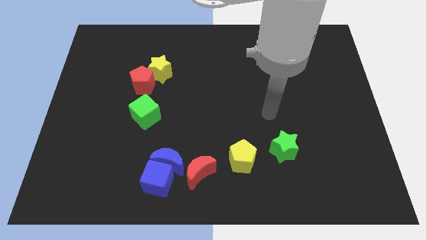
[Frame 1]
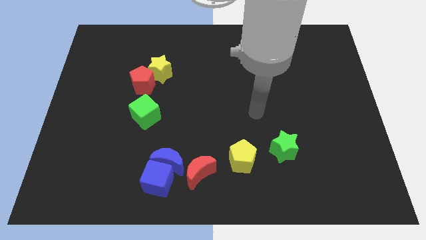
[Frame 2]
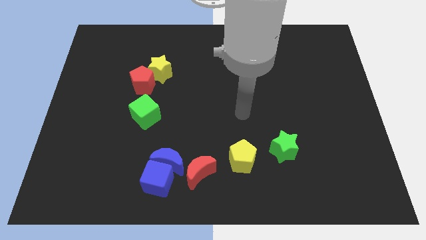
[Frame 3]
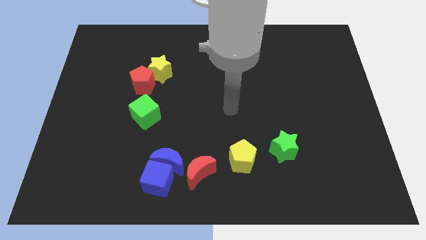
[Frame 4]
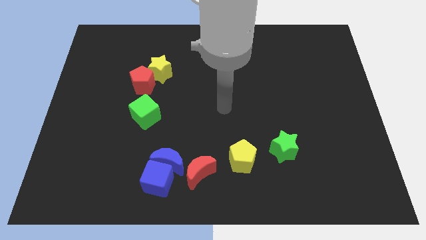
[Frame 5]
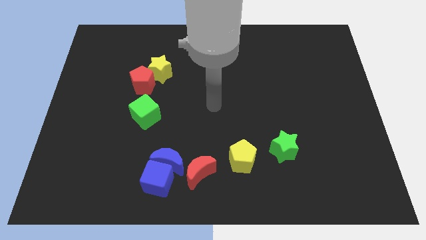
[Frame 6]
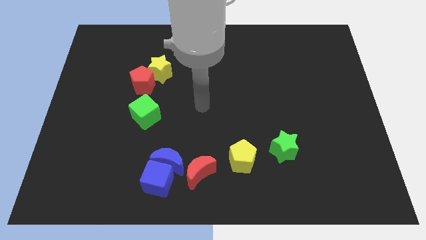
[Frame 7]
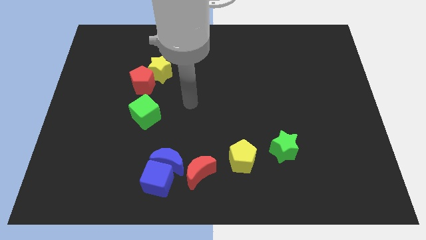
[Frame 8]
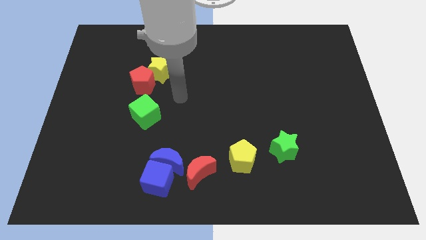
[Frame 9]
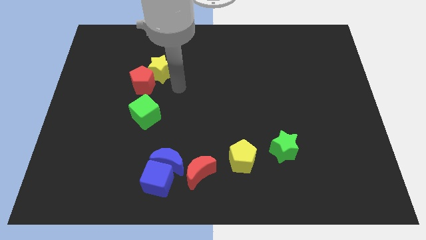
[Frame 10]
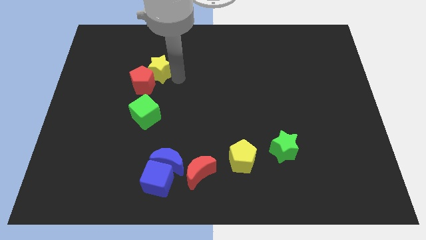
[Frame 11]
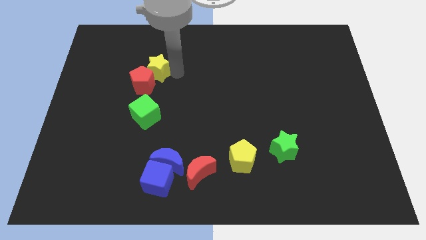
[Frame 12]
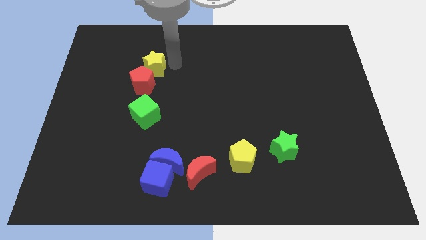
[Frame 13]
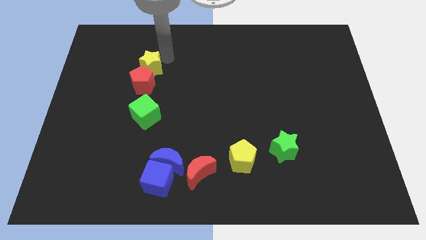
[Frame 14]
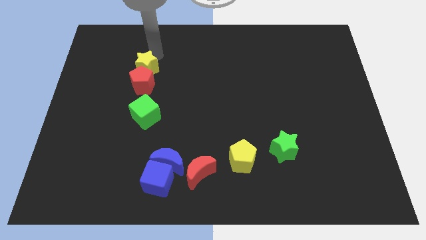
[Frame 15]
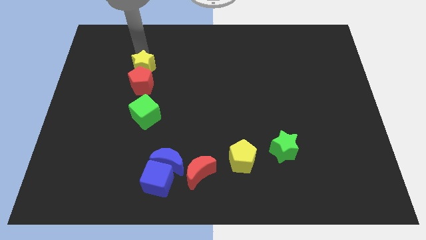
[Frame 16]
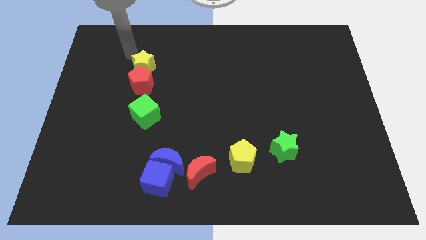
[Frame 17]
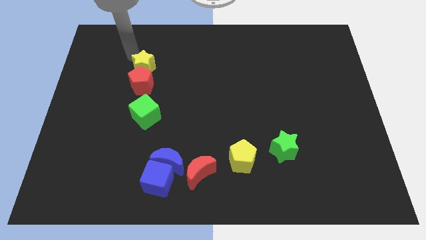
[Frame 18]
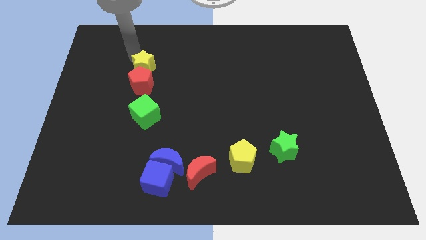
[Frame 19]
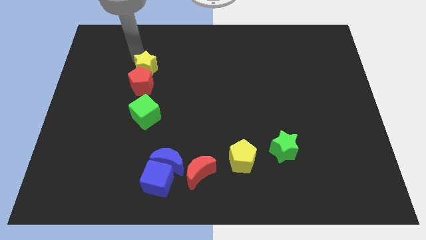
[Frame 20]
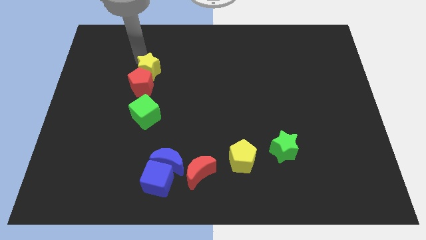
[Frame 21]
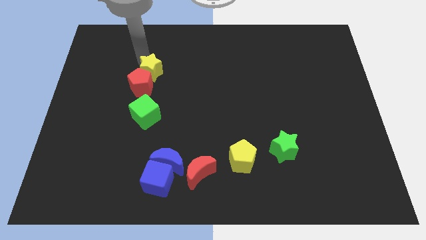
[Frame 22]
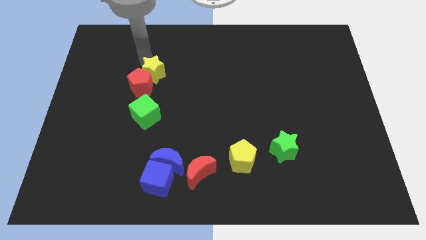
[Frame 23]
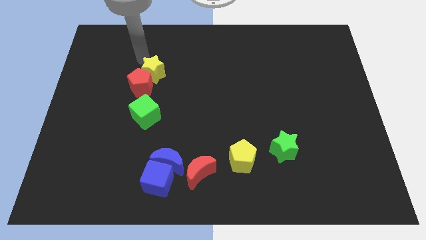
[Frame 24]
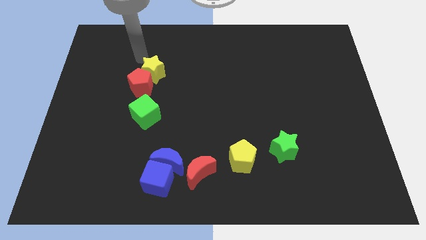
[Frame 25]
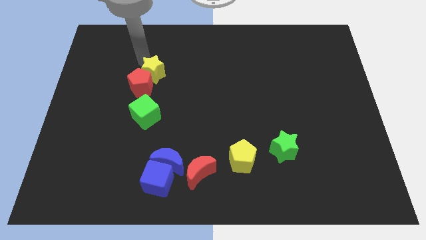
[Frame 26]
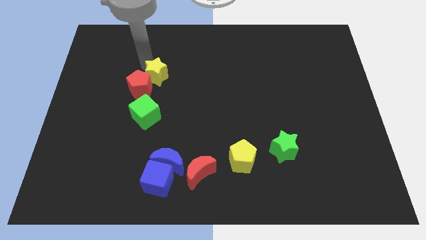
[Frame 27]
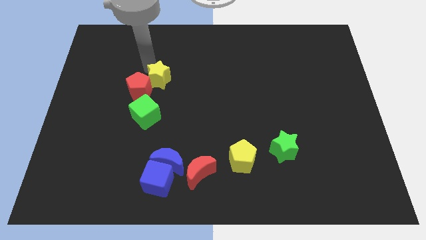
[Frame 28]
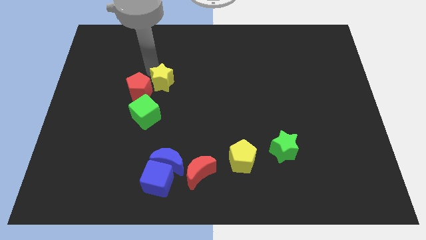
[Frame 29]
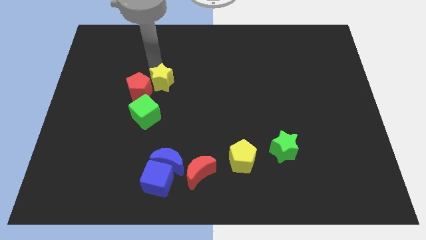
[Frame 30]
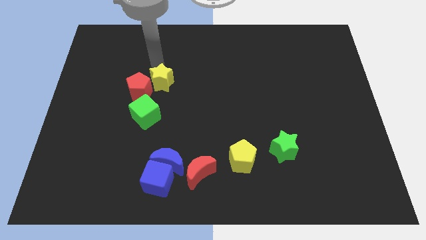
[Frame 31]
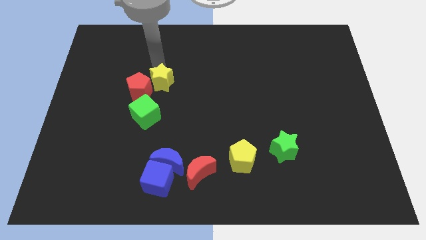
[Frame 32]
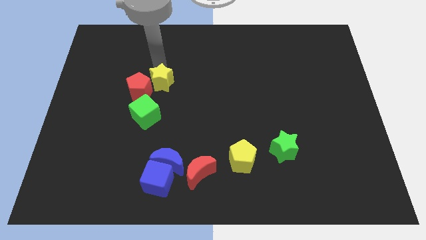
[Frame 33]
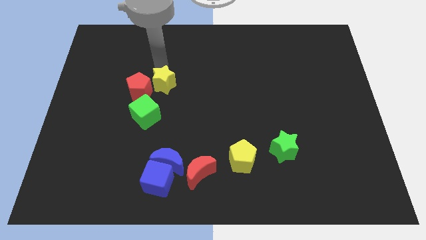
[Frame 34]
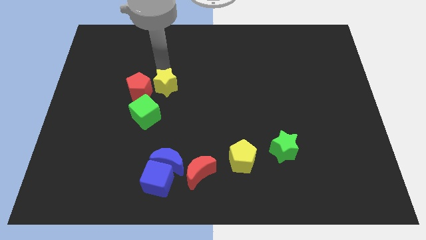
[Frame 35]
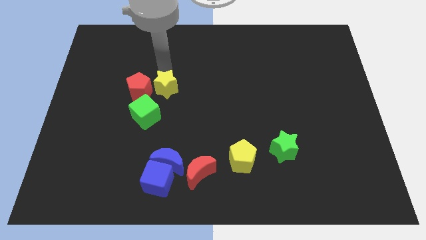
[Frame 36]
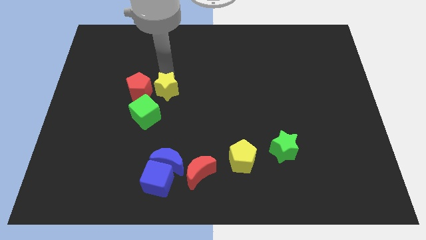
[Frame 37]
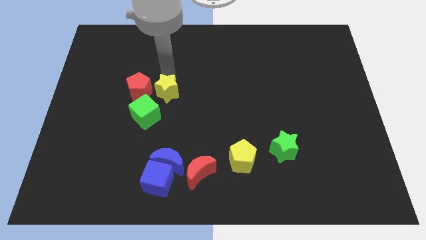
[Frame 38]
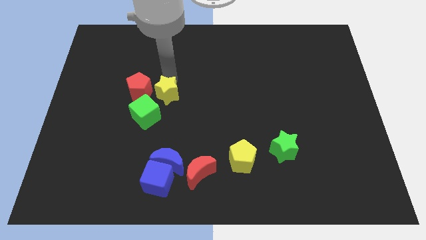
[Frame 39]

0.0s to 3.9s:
slightly slide the yellow star down

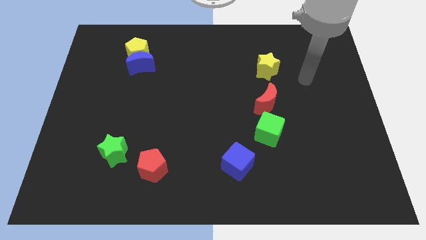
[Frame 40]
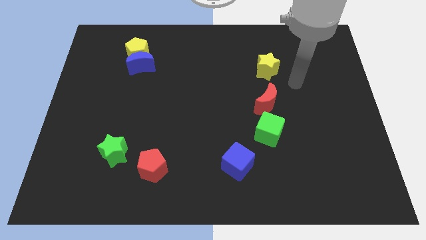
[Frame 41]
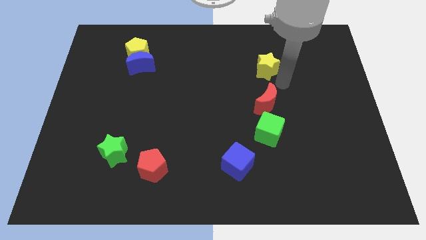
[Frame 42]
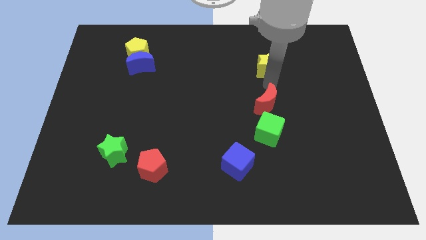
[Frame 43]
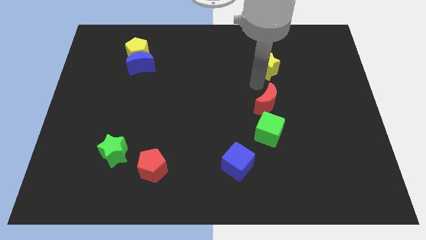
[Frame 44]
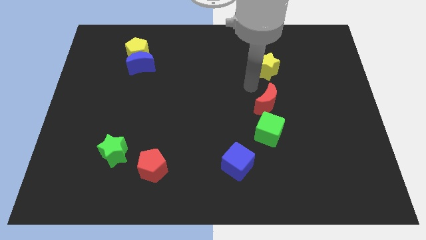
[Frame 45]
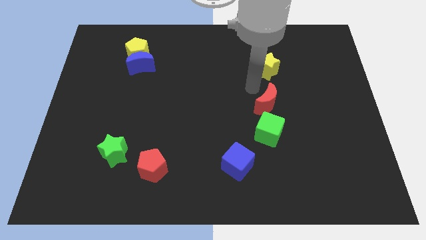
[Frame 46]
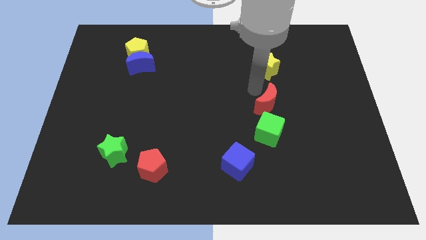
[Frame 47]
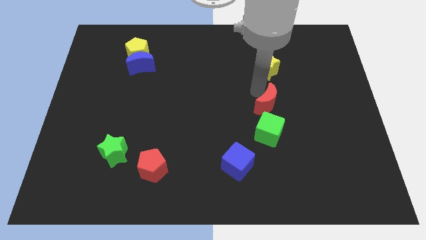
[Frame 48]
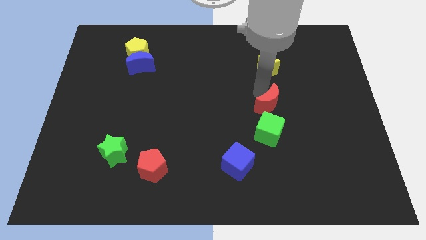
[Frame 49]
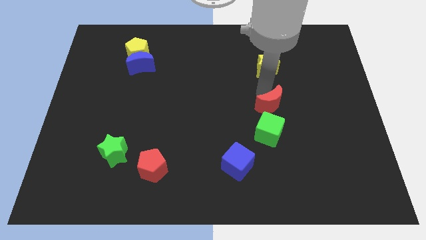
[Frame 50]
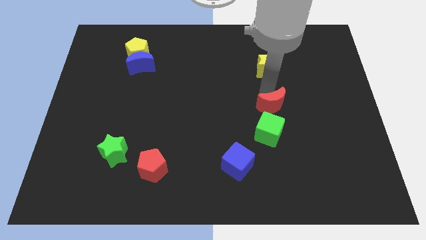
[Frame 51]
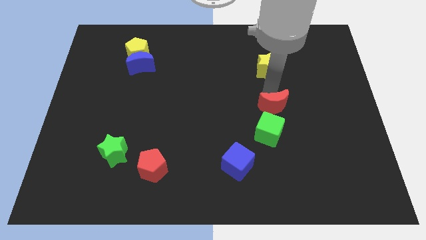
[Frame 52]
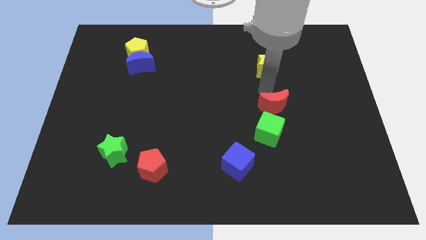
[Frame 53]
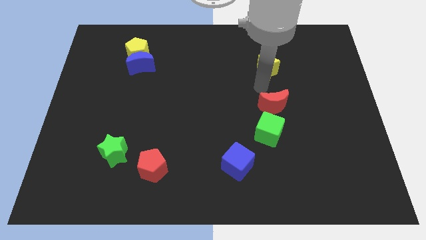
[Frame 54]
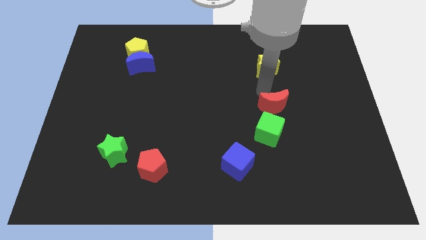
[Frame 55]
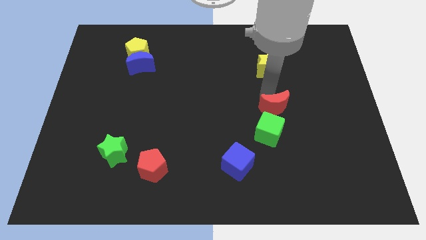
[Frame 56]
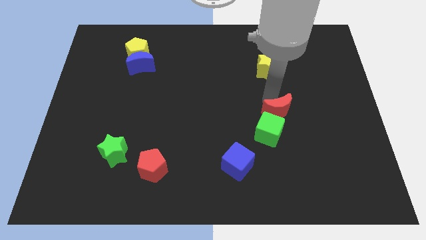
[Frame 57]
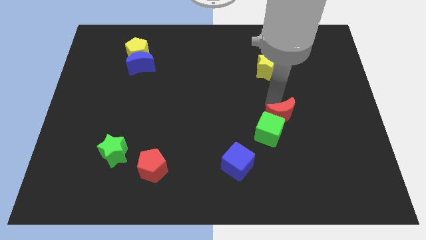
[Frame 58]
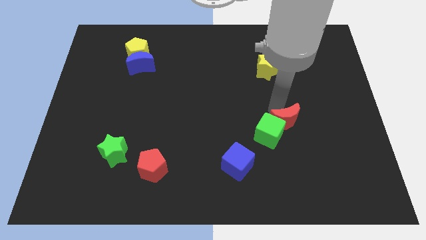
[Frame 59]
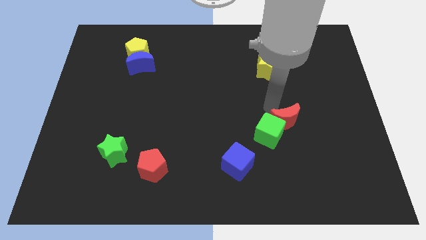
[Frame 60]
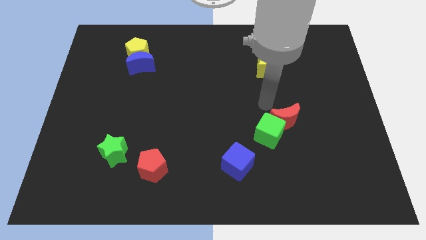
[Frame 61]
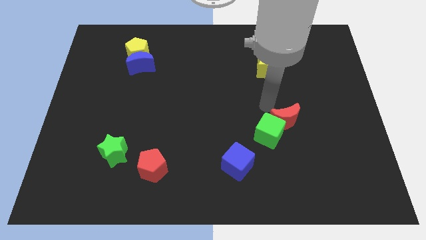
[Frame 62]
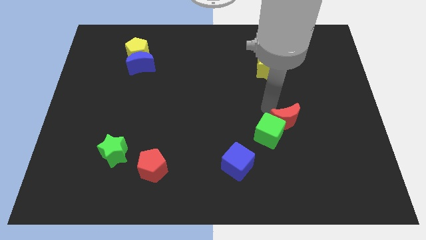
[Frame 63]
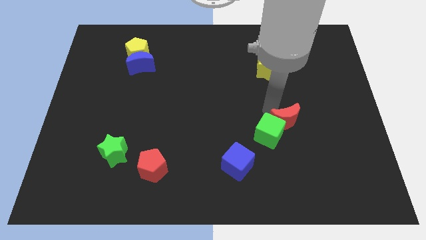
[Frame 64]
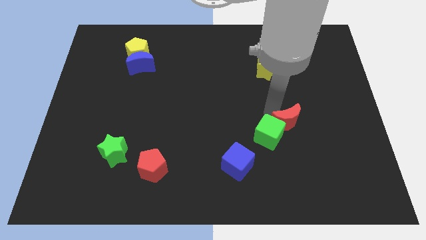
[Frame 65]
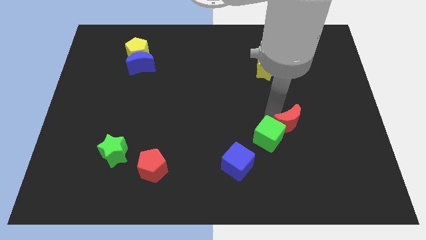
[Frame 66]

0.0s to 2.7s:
slightly move the red moon diagonally downwards and right

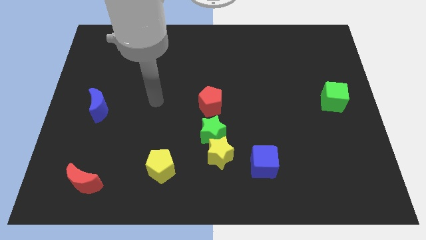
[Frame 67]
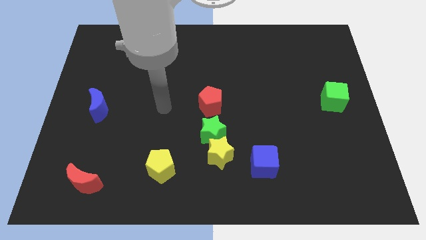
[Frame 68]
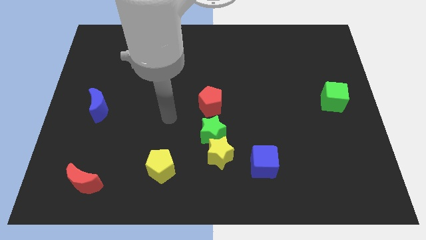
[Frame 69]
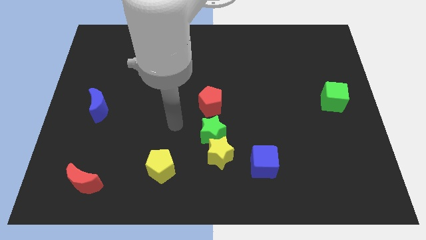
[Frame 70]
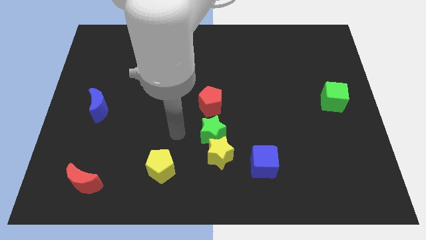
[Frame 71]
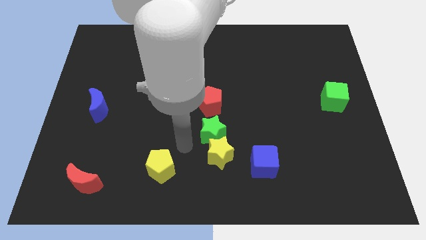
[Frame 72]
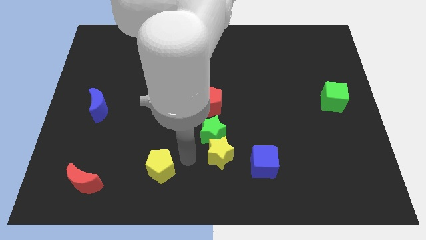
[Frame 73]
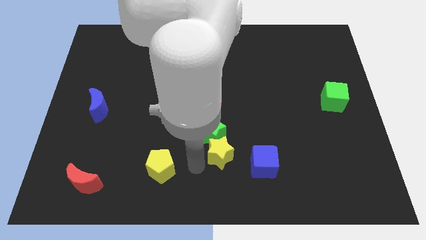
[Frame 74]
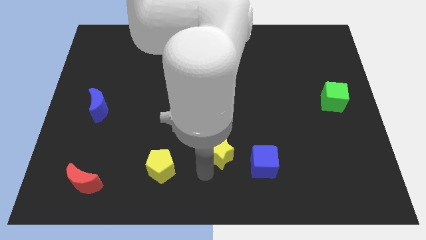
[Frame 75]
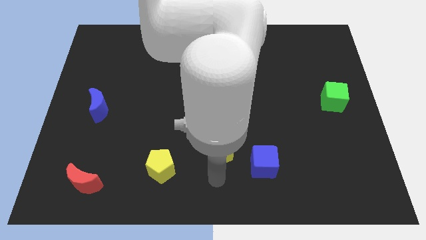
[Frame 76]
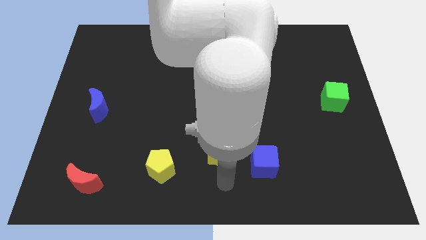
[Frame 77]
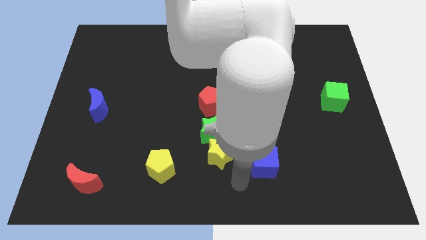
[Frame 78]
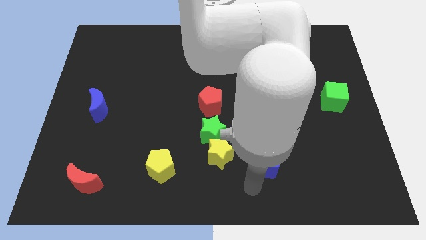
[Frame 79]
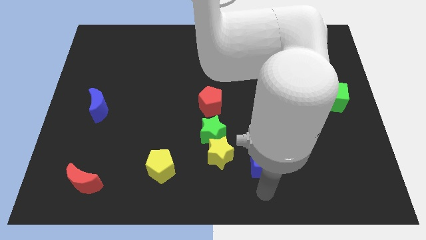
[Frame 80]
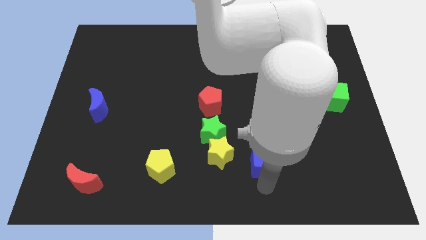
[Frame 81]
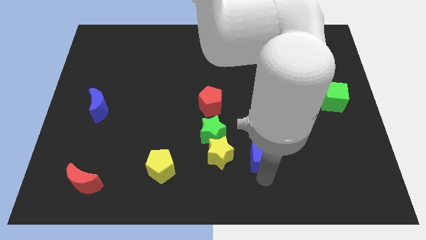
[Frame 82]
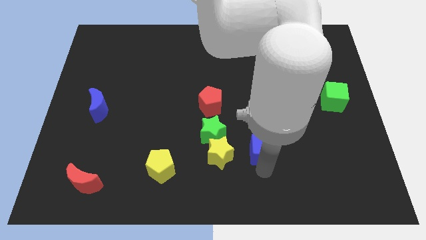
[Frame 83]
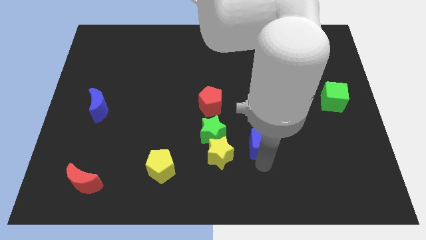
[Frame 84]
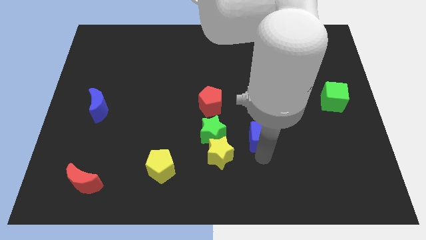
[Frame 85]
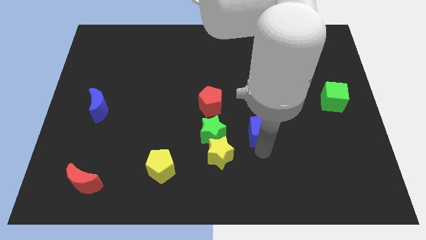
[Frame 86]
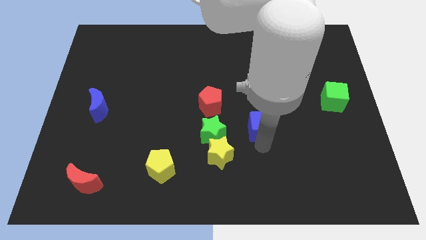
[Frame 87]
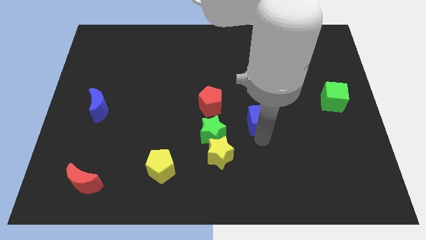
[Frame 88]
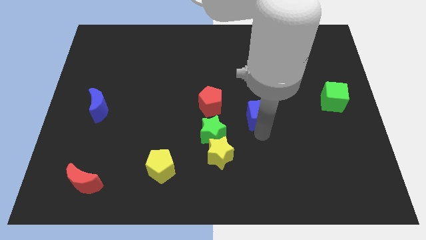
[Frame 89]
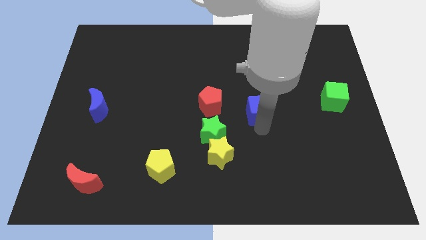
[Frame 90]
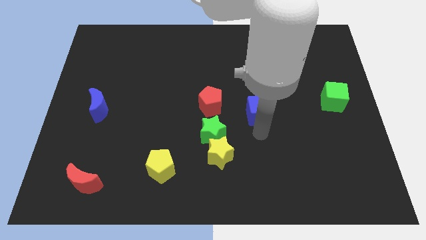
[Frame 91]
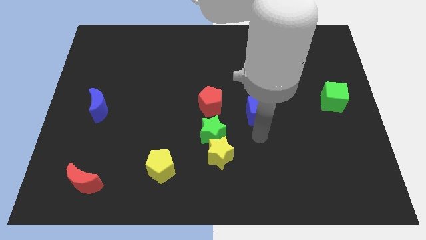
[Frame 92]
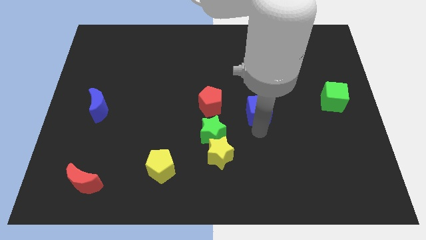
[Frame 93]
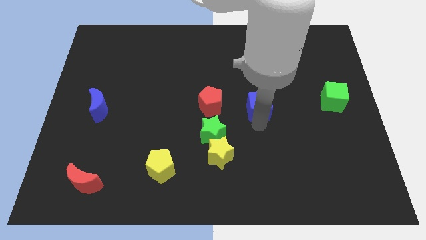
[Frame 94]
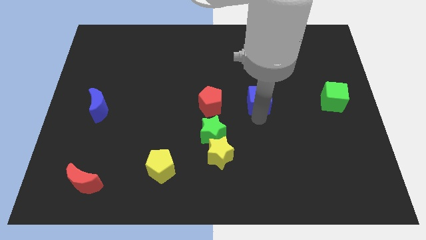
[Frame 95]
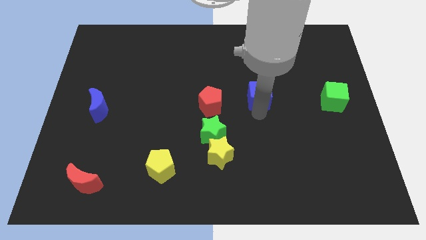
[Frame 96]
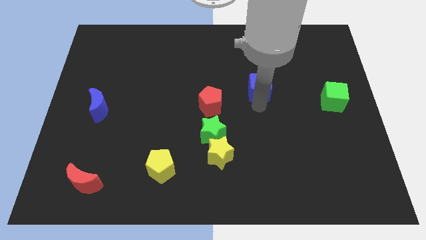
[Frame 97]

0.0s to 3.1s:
slide the blue cube up
